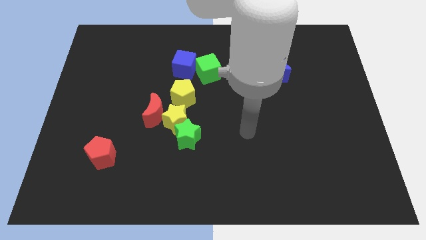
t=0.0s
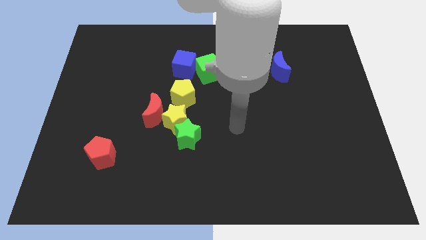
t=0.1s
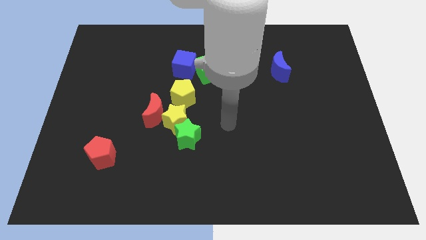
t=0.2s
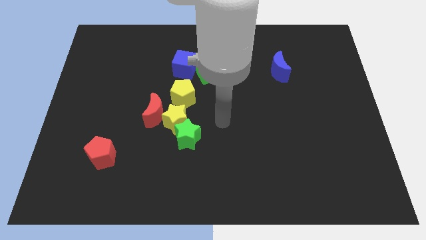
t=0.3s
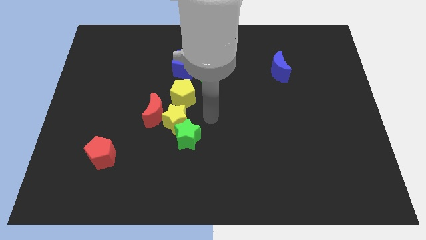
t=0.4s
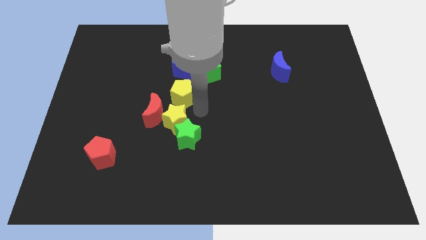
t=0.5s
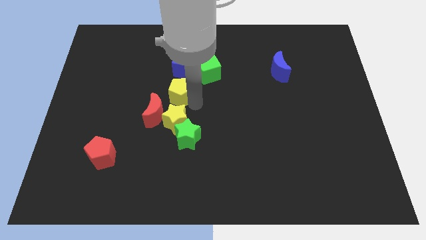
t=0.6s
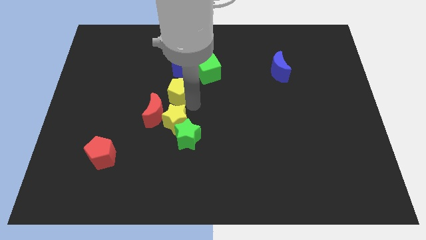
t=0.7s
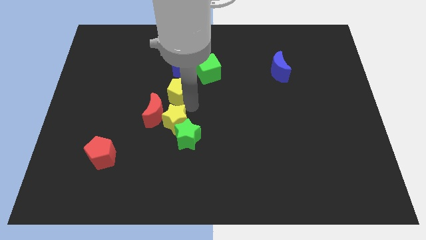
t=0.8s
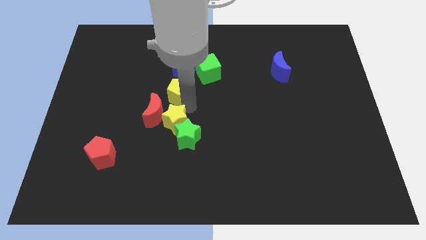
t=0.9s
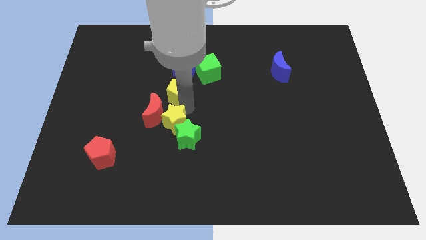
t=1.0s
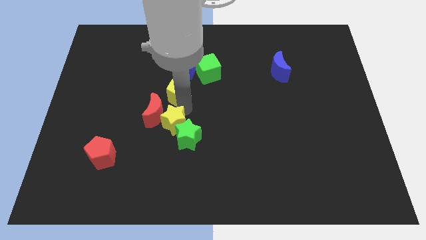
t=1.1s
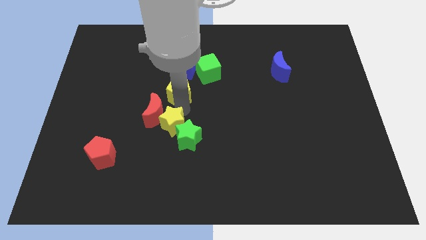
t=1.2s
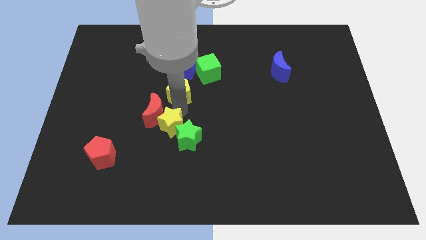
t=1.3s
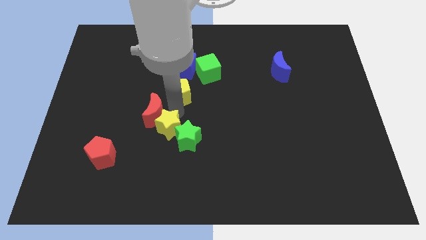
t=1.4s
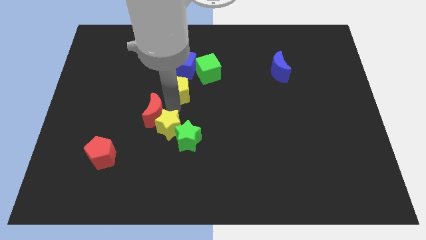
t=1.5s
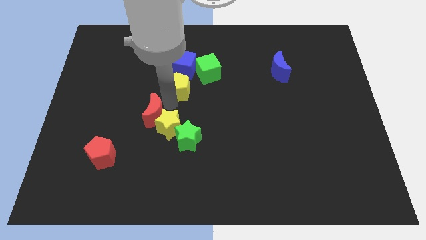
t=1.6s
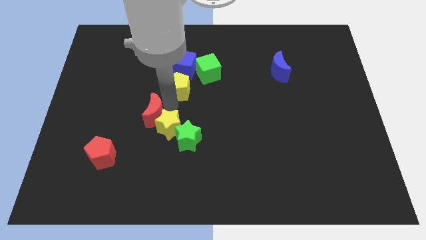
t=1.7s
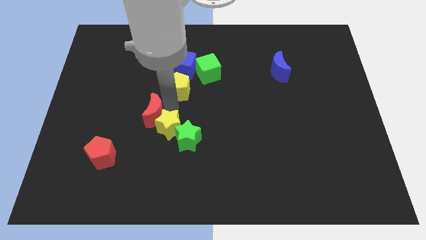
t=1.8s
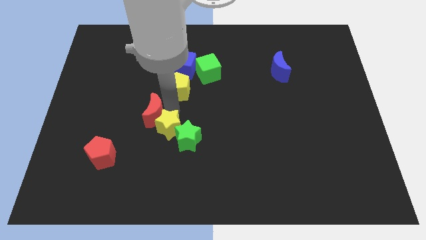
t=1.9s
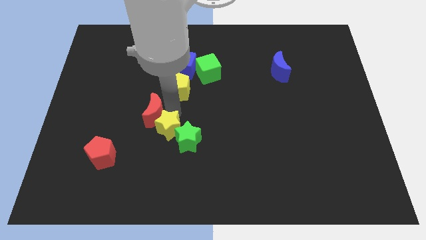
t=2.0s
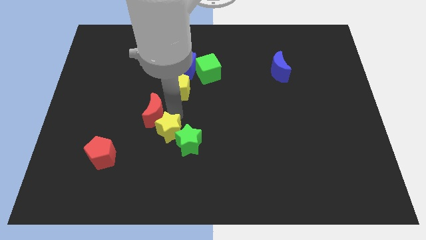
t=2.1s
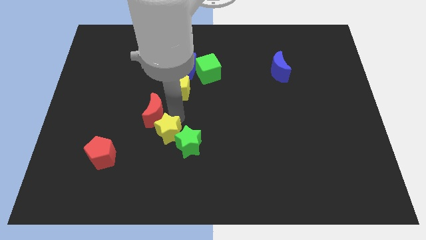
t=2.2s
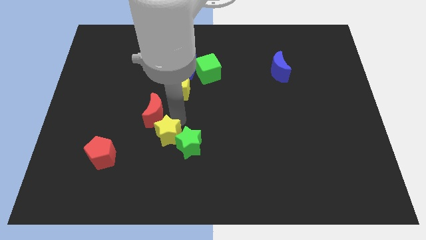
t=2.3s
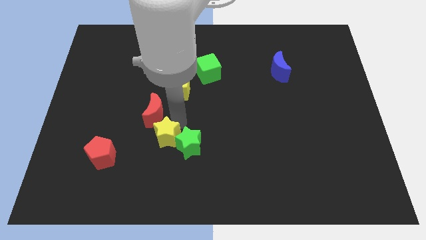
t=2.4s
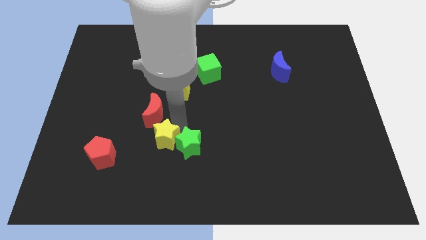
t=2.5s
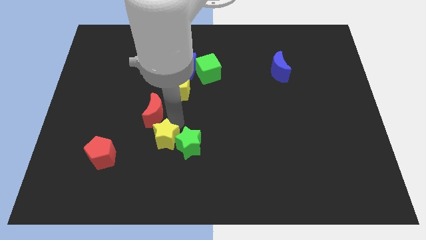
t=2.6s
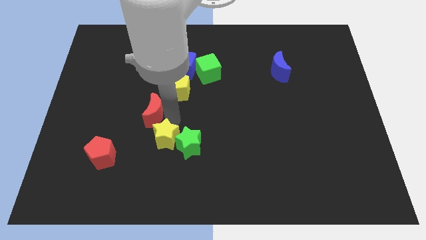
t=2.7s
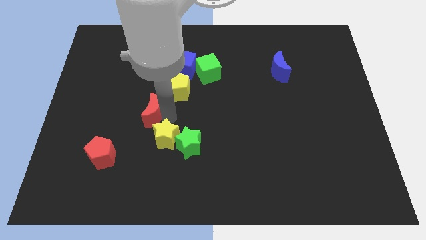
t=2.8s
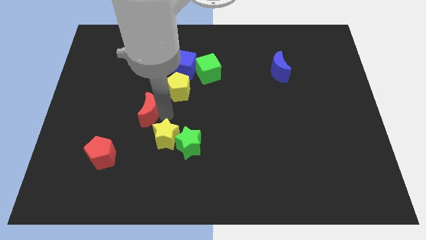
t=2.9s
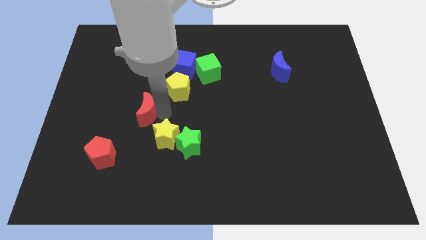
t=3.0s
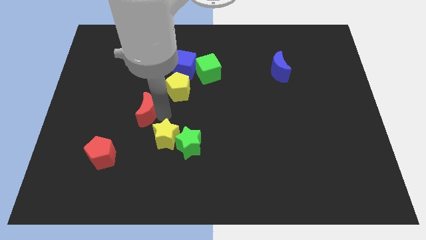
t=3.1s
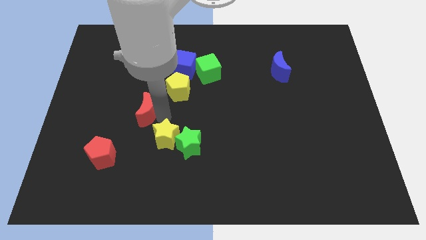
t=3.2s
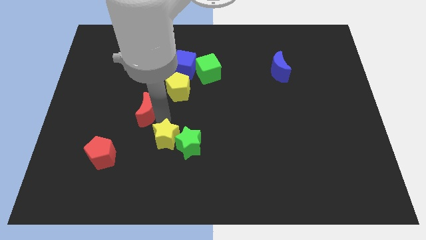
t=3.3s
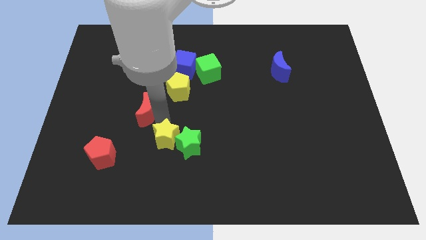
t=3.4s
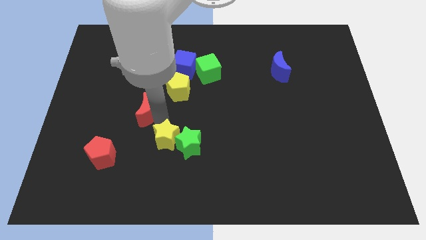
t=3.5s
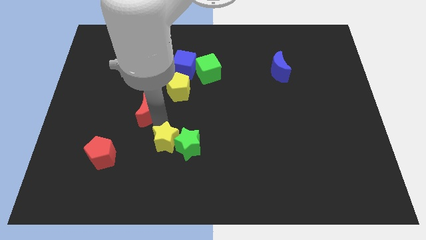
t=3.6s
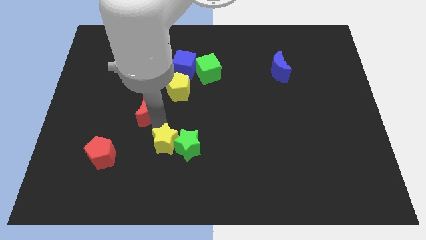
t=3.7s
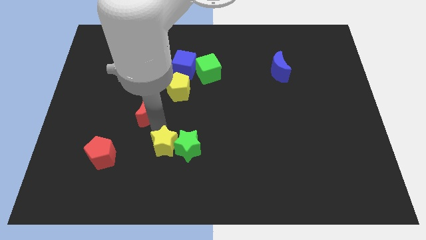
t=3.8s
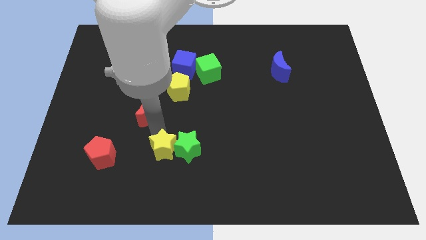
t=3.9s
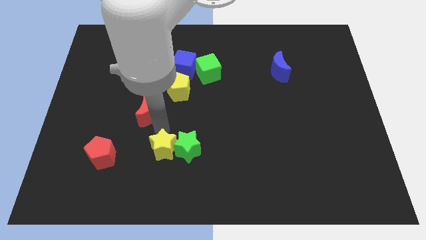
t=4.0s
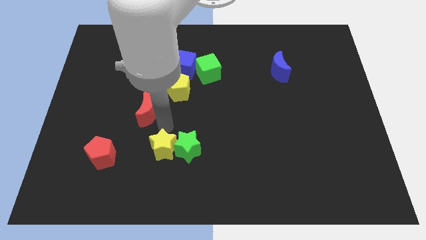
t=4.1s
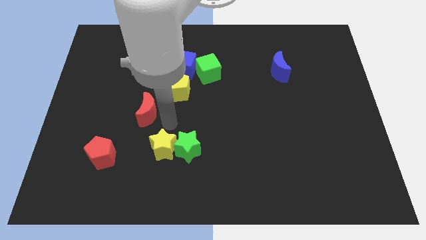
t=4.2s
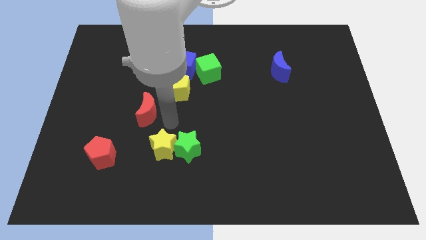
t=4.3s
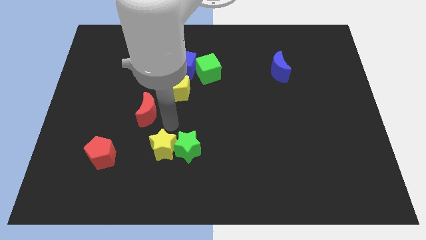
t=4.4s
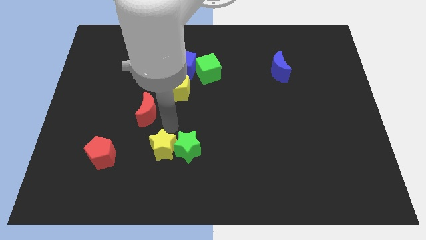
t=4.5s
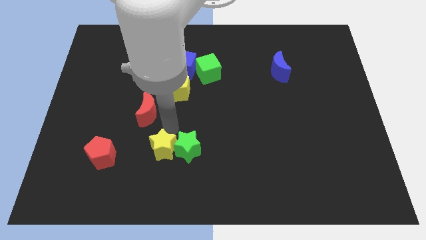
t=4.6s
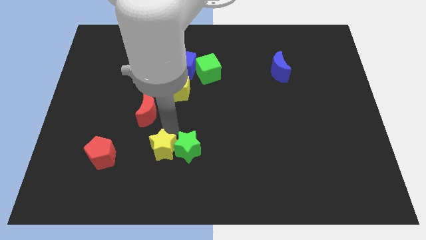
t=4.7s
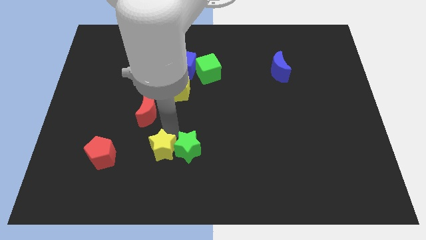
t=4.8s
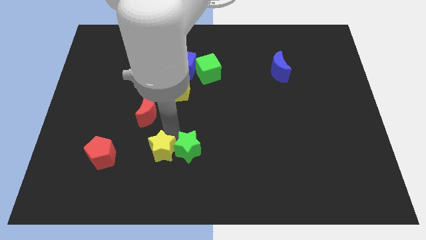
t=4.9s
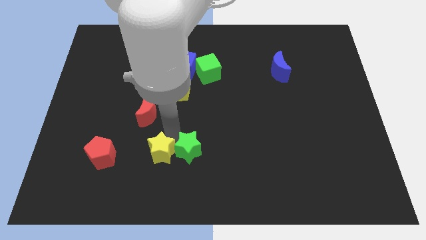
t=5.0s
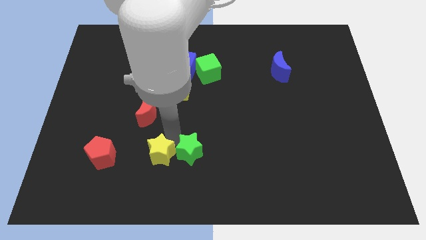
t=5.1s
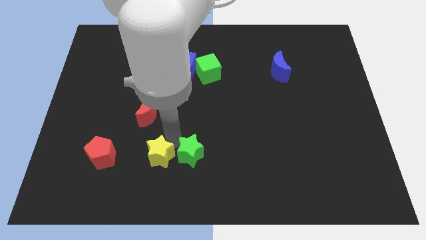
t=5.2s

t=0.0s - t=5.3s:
separate the yellow star from the clump

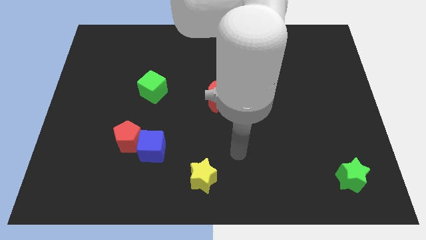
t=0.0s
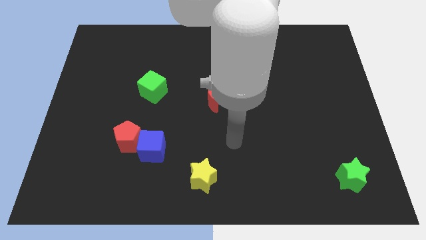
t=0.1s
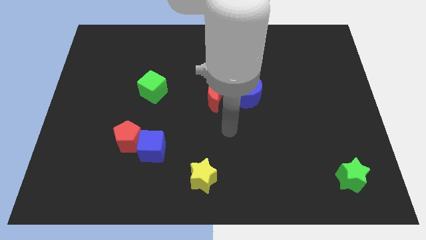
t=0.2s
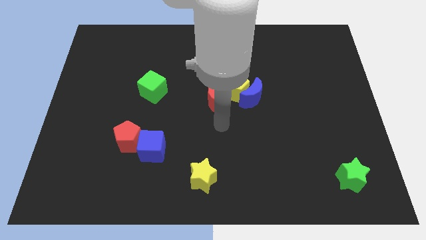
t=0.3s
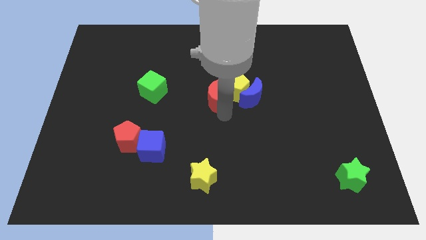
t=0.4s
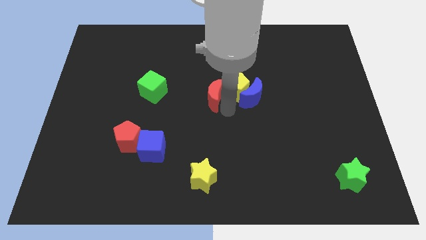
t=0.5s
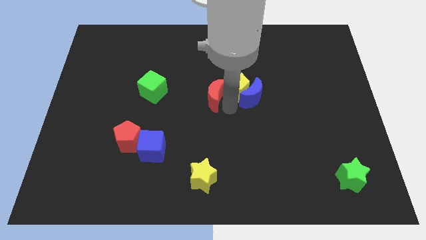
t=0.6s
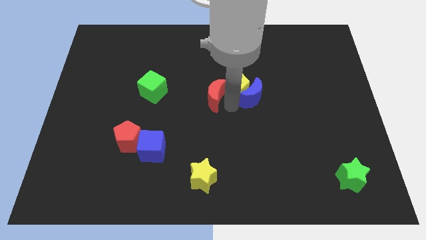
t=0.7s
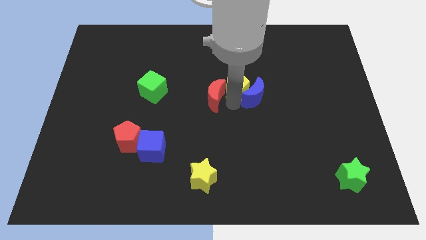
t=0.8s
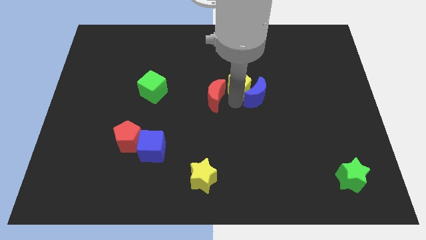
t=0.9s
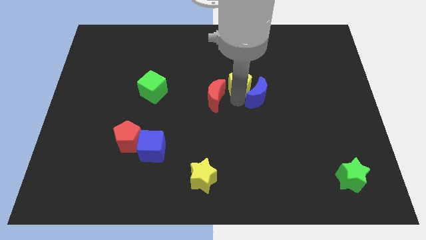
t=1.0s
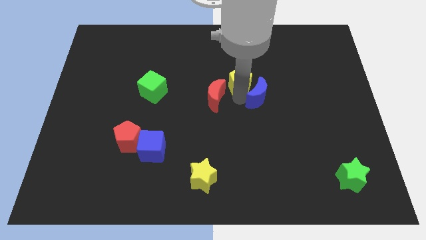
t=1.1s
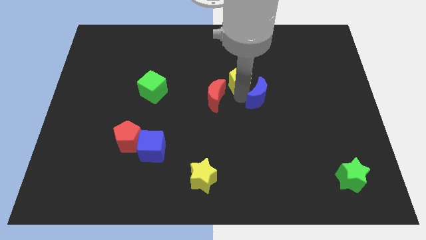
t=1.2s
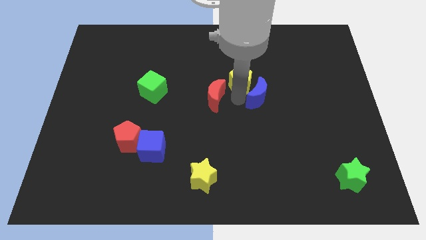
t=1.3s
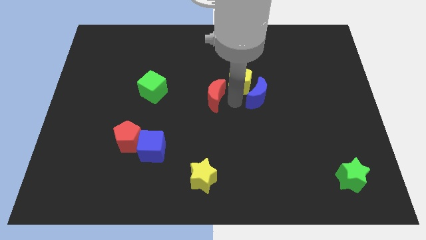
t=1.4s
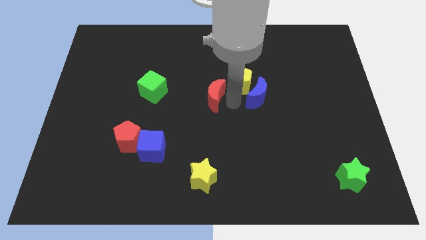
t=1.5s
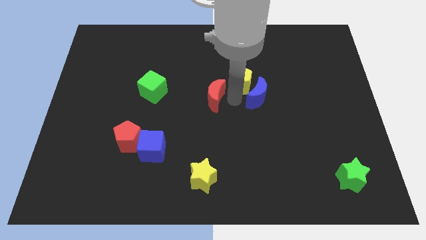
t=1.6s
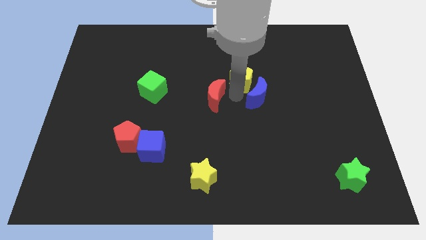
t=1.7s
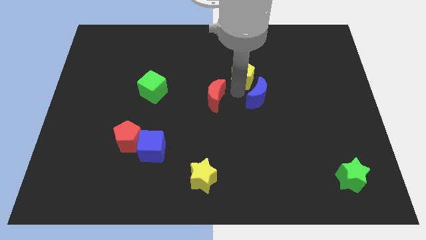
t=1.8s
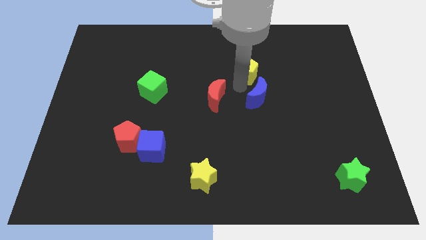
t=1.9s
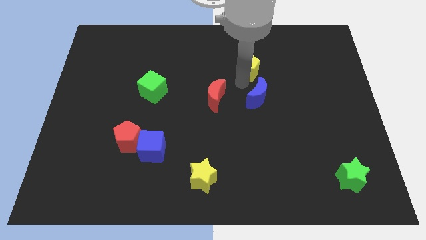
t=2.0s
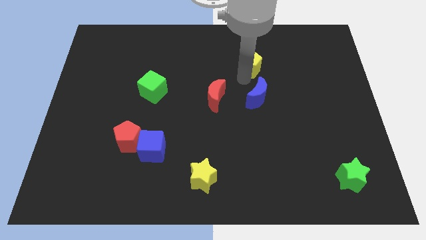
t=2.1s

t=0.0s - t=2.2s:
separate the yellow pentagon from the blue moon and red moon

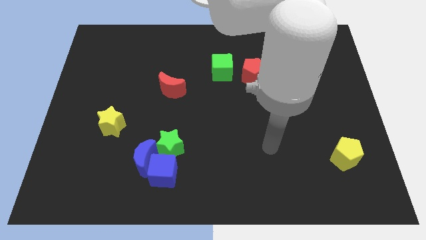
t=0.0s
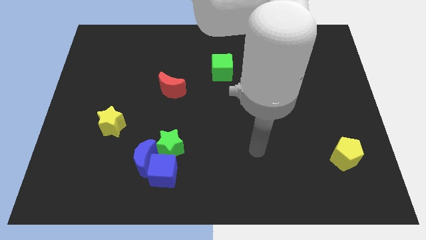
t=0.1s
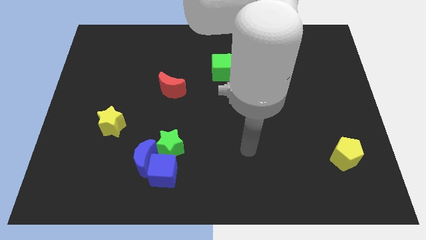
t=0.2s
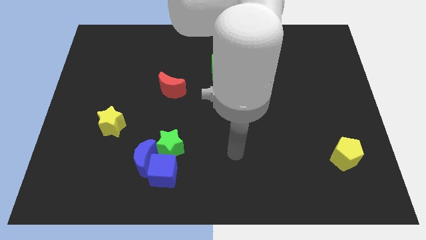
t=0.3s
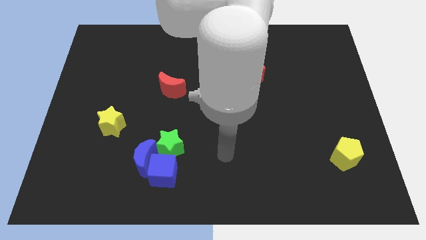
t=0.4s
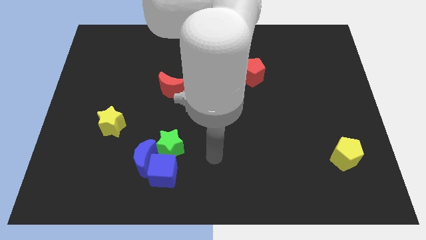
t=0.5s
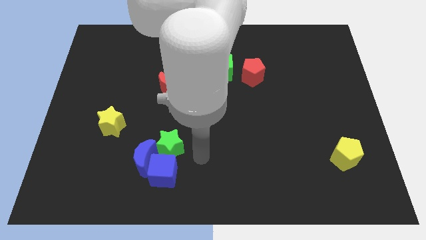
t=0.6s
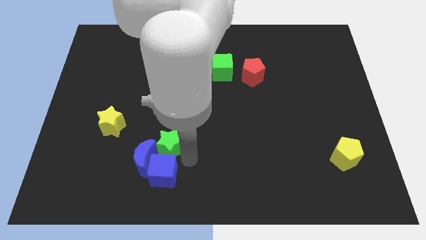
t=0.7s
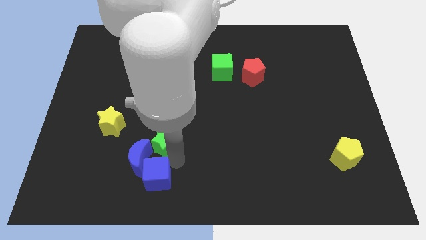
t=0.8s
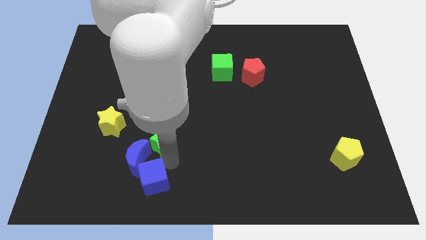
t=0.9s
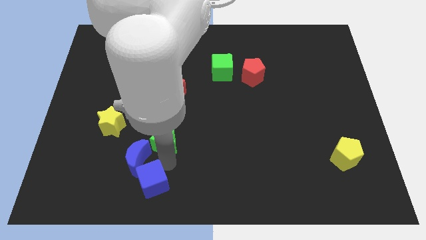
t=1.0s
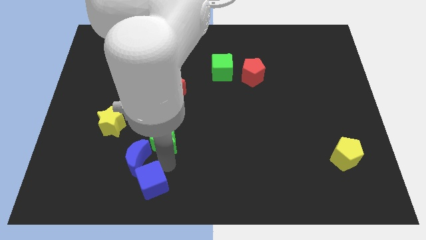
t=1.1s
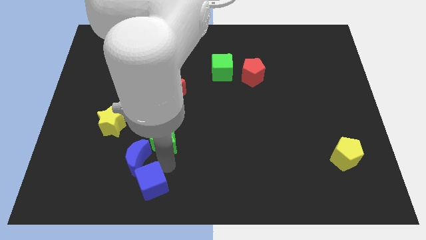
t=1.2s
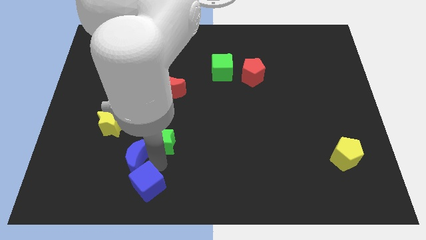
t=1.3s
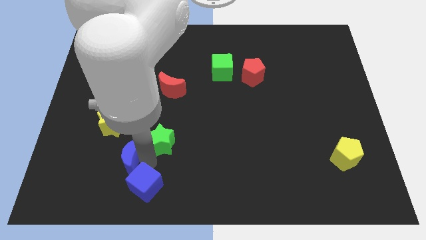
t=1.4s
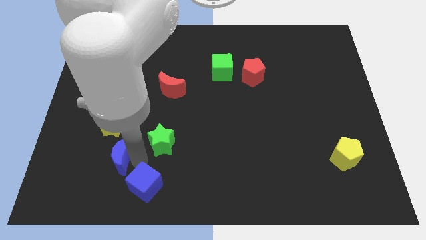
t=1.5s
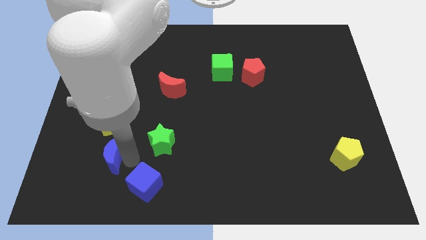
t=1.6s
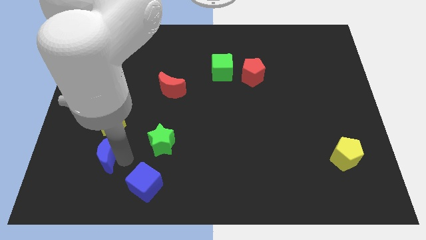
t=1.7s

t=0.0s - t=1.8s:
move the blue moon away from the blue cube and green star
